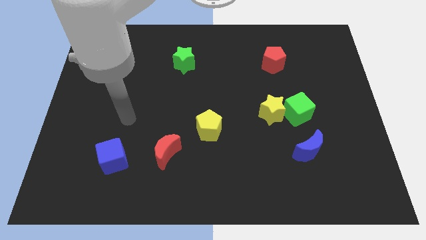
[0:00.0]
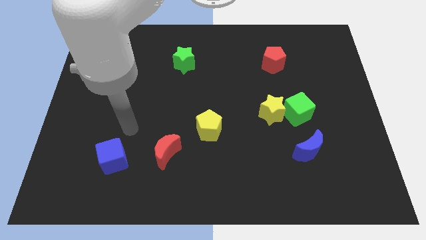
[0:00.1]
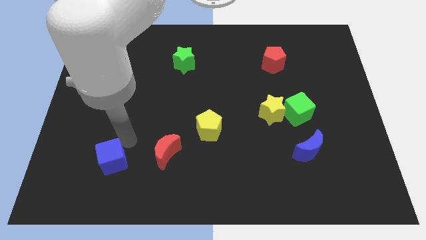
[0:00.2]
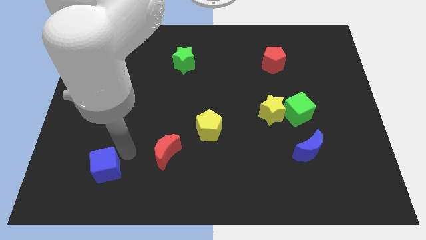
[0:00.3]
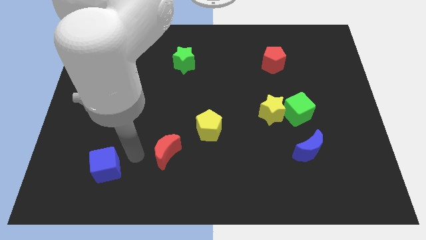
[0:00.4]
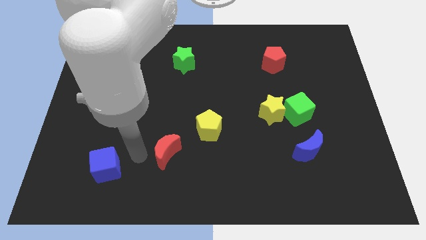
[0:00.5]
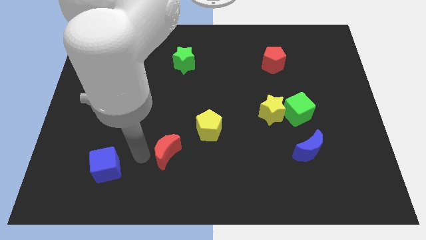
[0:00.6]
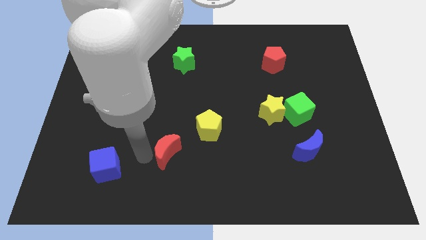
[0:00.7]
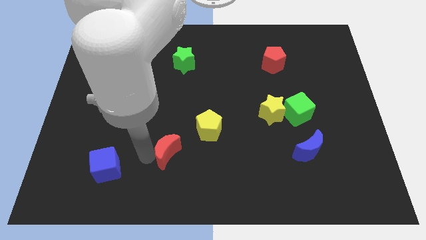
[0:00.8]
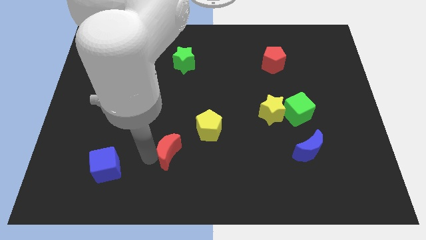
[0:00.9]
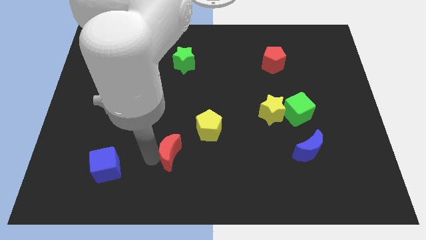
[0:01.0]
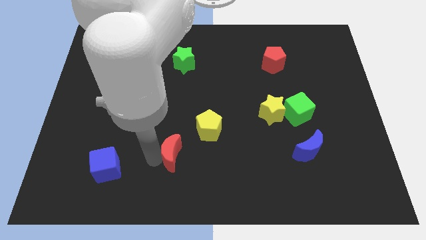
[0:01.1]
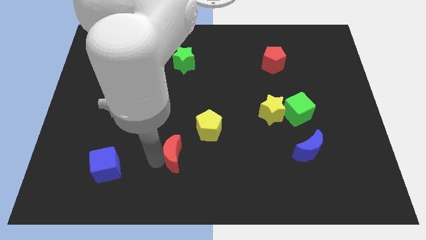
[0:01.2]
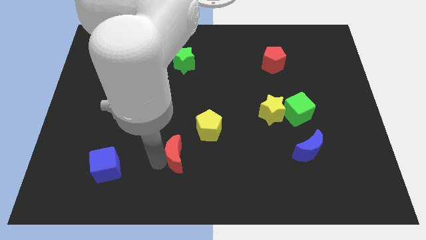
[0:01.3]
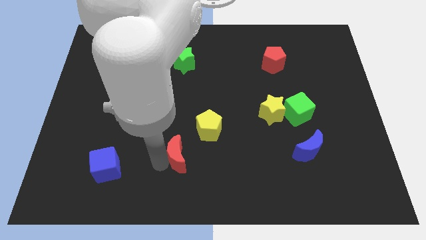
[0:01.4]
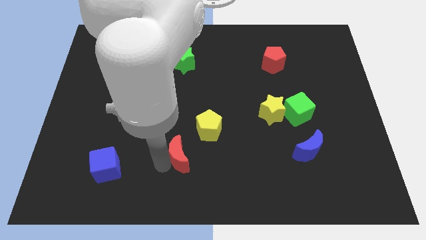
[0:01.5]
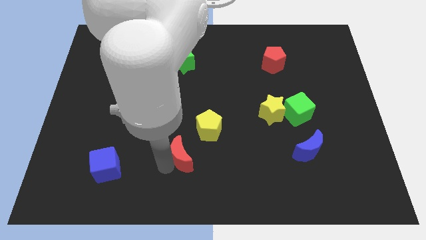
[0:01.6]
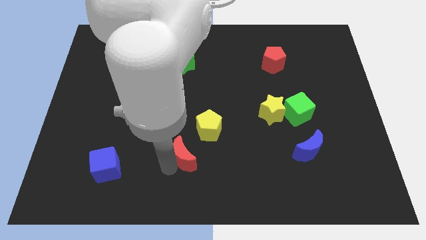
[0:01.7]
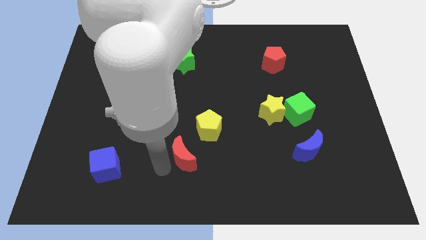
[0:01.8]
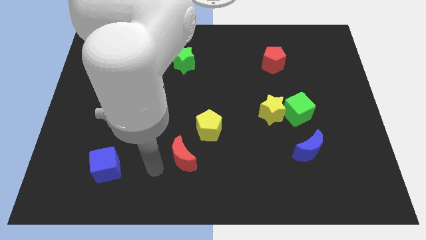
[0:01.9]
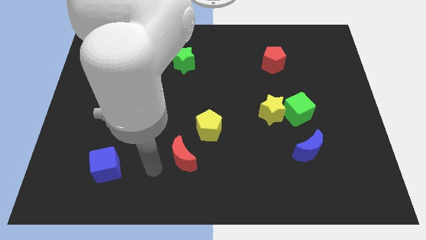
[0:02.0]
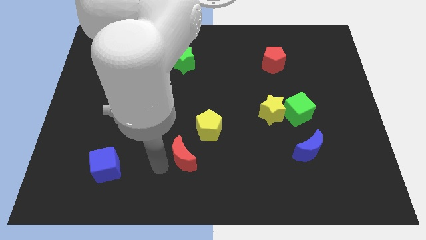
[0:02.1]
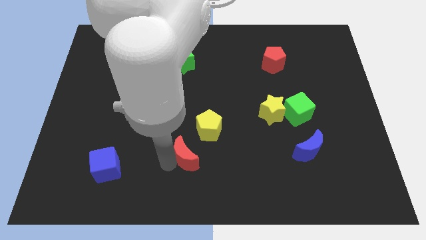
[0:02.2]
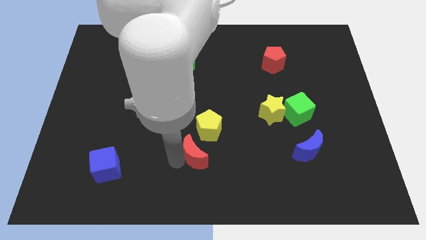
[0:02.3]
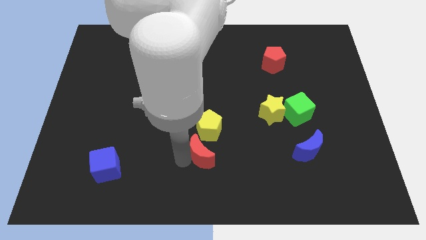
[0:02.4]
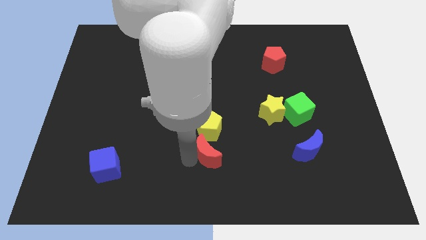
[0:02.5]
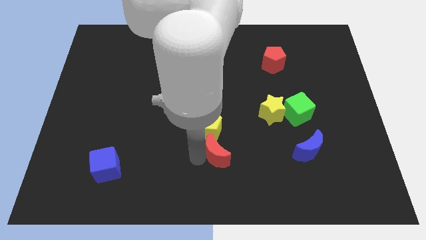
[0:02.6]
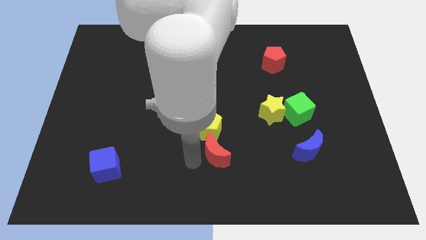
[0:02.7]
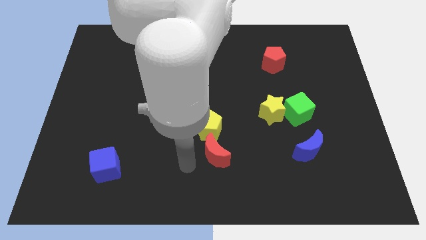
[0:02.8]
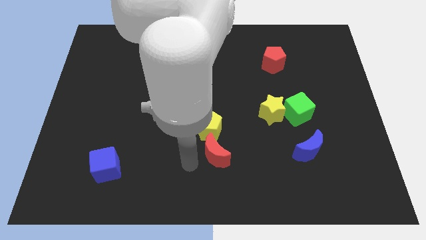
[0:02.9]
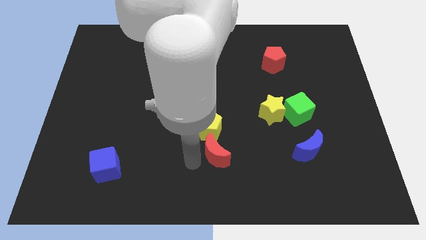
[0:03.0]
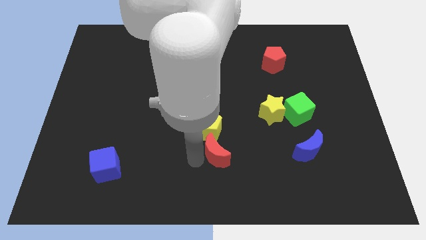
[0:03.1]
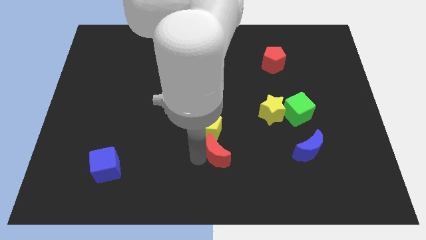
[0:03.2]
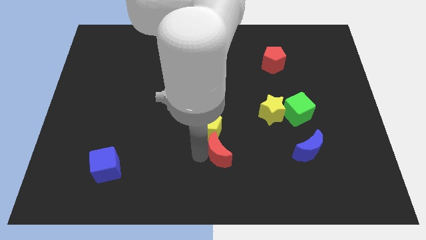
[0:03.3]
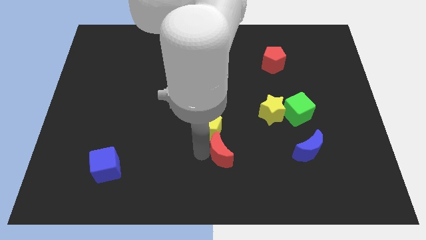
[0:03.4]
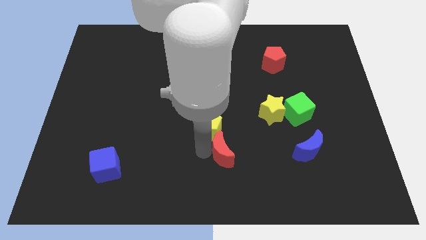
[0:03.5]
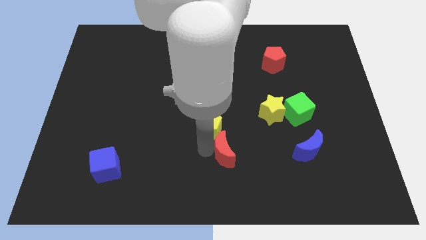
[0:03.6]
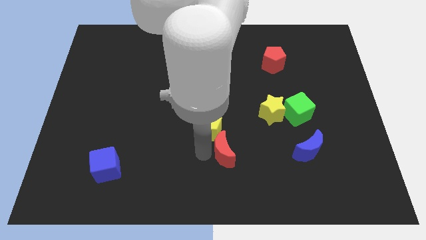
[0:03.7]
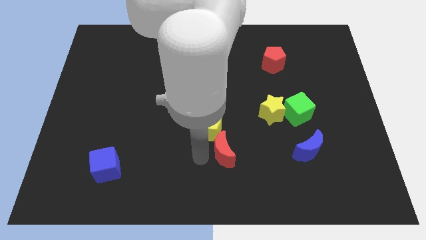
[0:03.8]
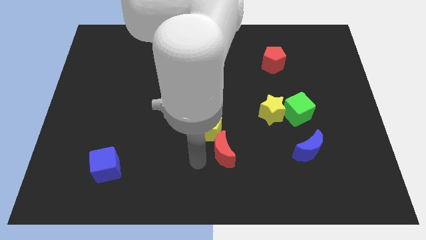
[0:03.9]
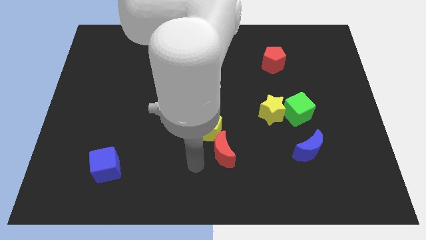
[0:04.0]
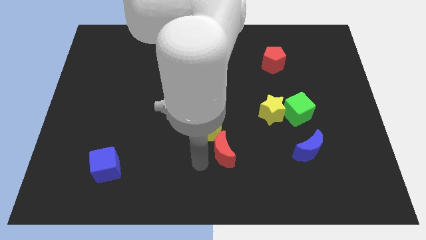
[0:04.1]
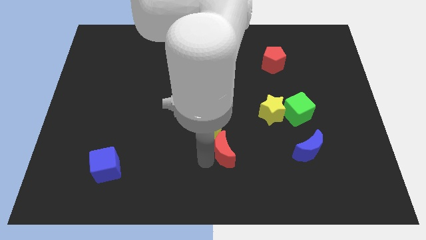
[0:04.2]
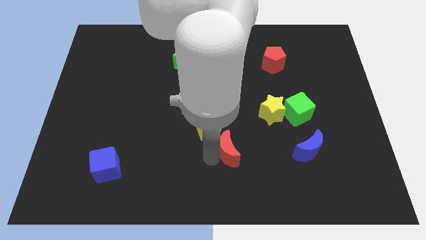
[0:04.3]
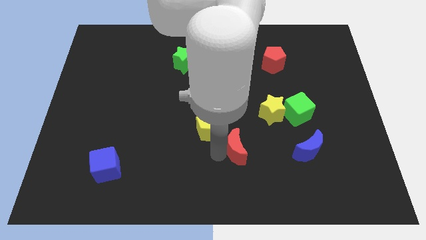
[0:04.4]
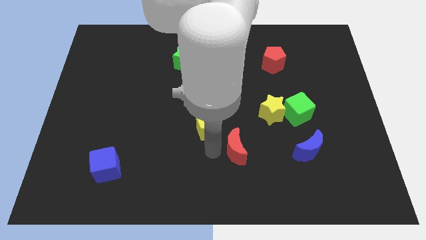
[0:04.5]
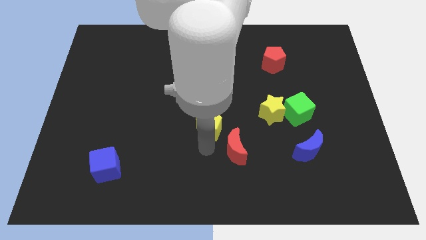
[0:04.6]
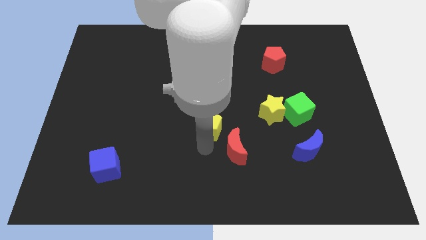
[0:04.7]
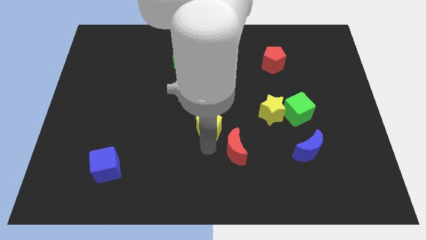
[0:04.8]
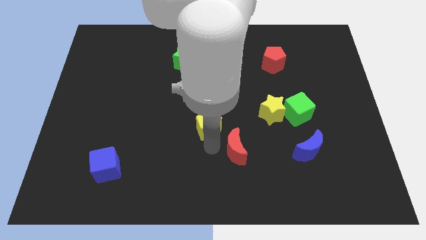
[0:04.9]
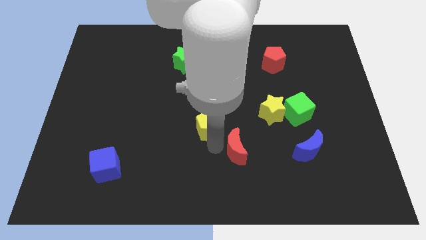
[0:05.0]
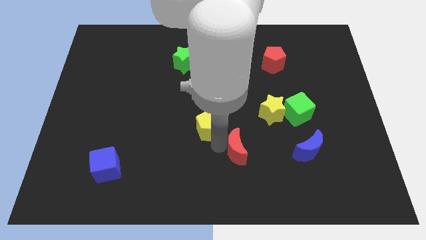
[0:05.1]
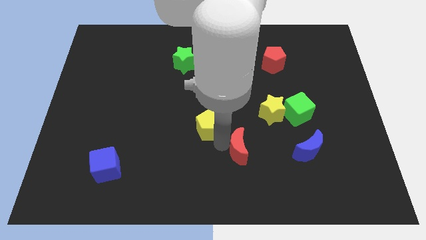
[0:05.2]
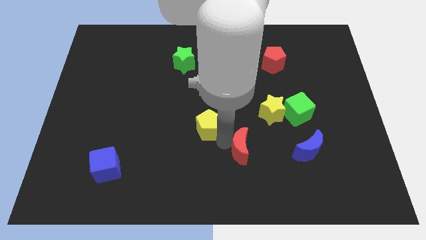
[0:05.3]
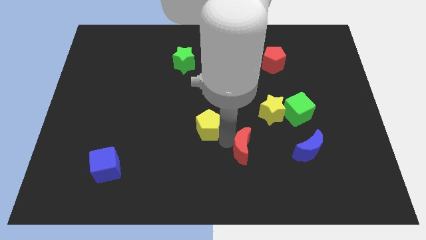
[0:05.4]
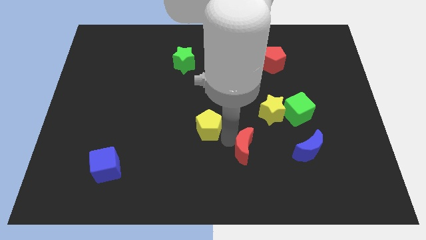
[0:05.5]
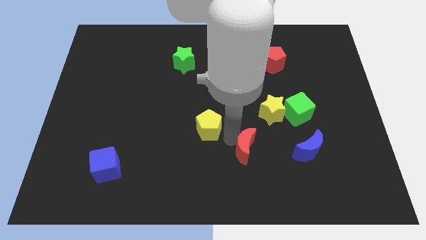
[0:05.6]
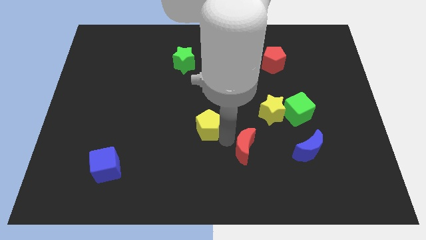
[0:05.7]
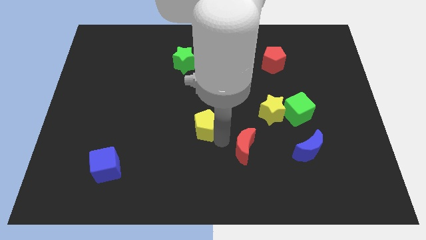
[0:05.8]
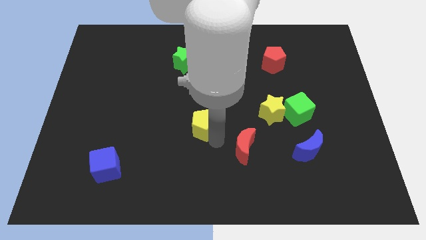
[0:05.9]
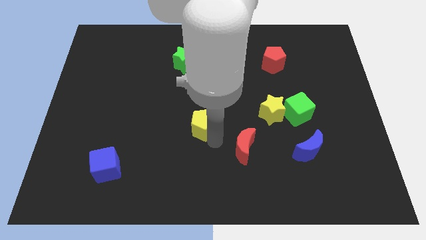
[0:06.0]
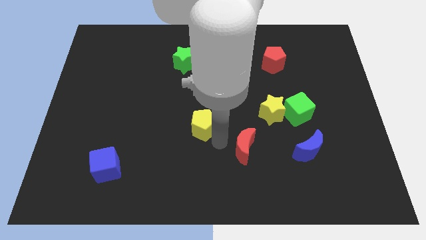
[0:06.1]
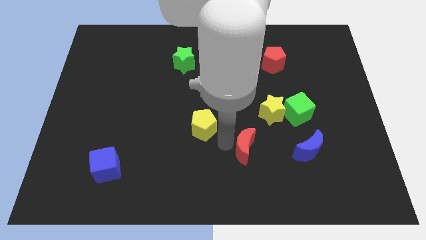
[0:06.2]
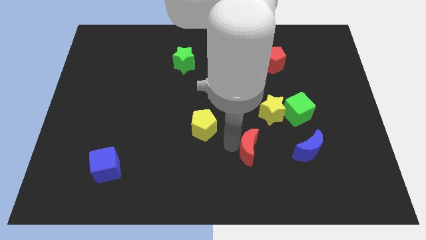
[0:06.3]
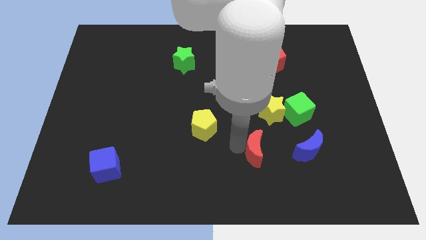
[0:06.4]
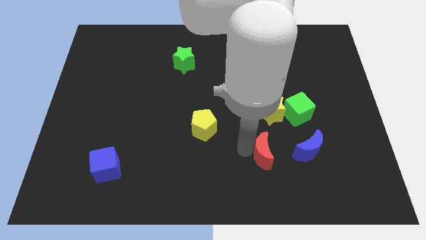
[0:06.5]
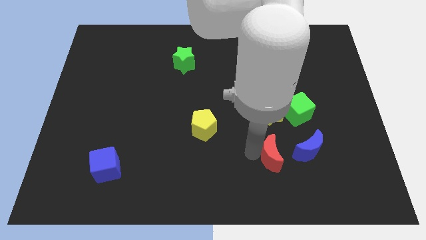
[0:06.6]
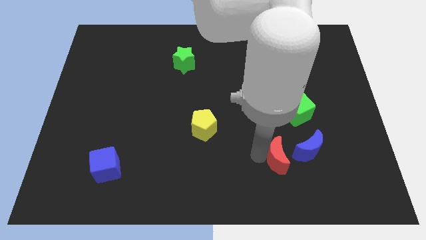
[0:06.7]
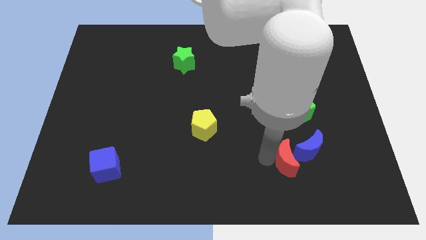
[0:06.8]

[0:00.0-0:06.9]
push the red moon towards the blue moon

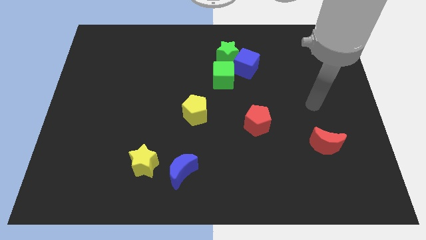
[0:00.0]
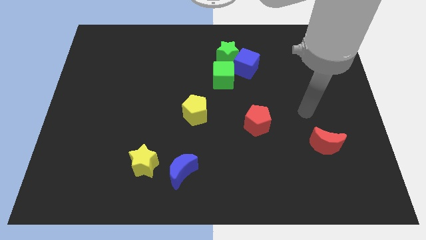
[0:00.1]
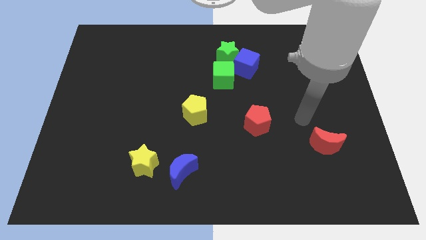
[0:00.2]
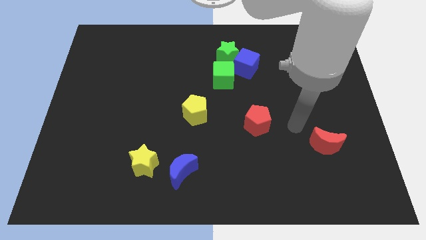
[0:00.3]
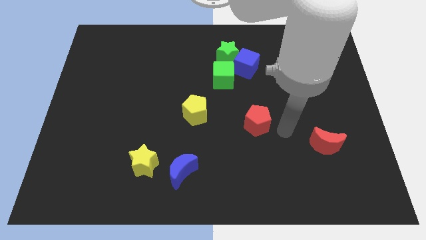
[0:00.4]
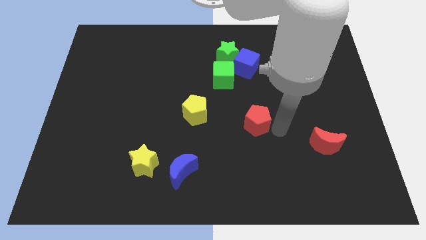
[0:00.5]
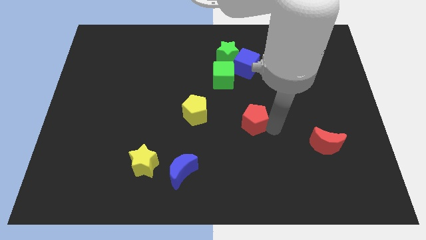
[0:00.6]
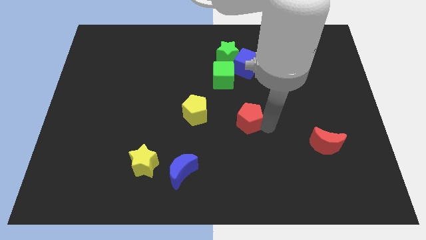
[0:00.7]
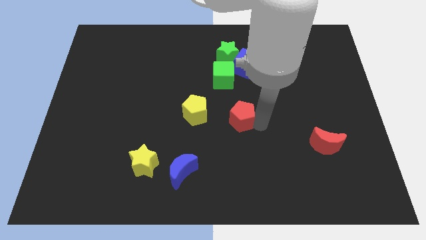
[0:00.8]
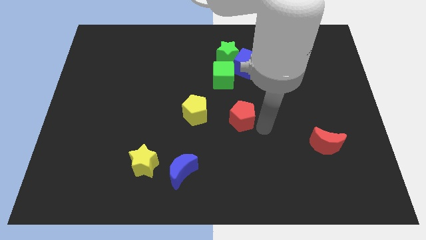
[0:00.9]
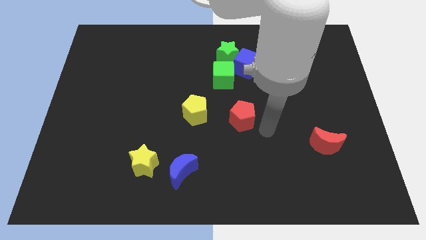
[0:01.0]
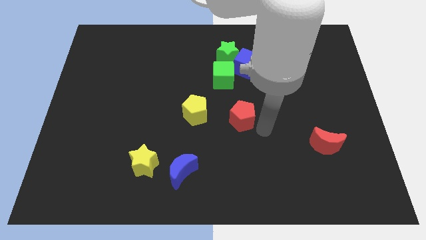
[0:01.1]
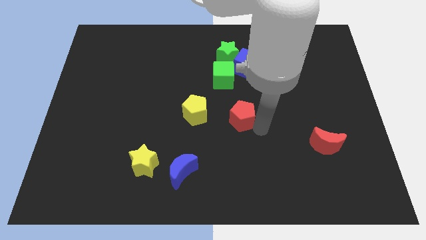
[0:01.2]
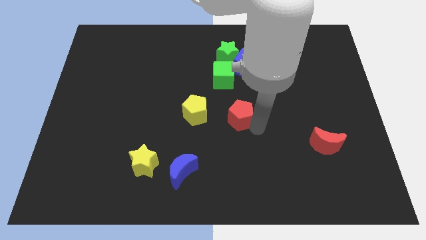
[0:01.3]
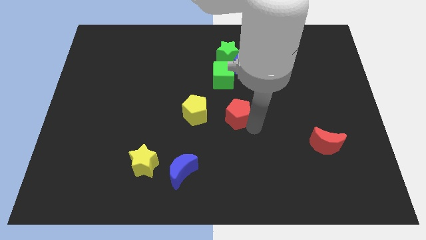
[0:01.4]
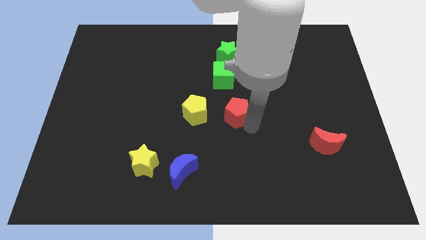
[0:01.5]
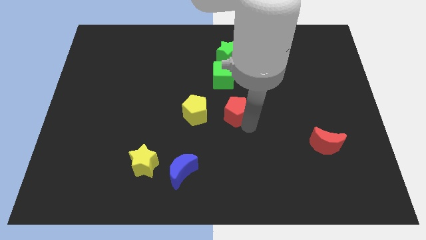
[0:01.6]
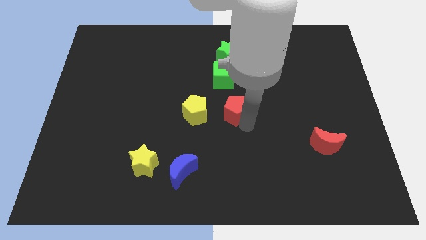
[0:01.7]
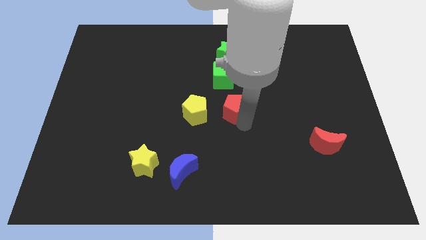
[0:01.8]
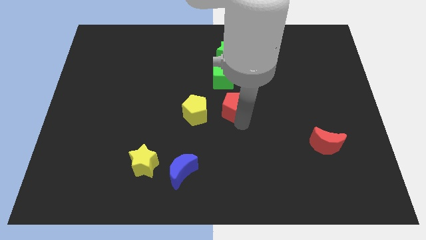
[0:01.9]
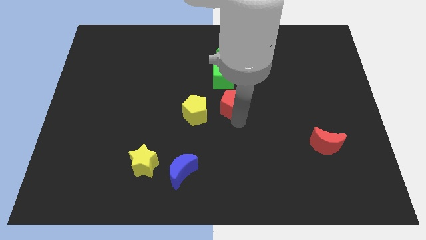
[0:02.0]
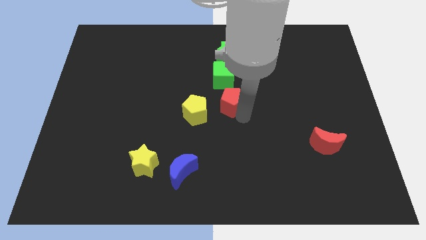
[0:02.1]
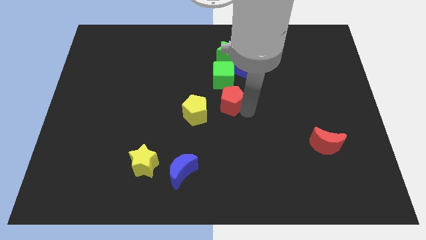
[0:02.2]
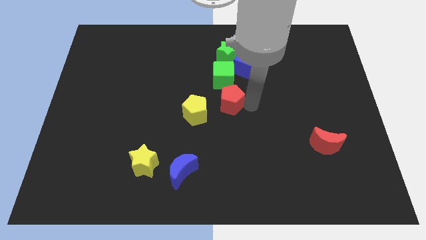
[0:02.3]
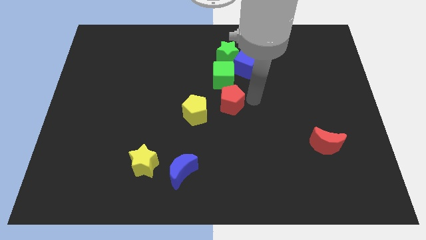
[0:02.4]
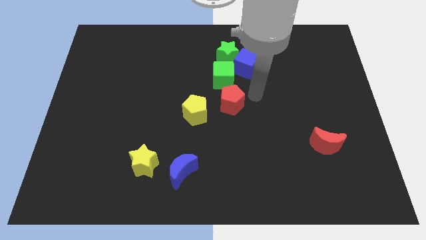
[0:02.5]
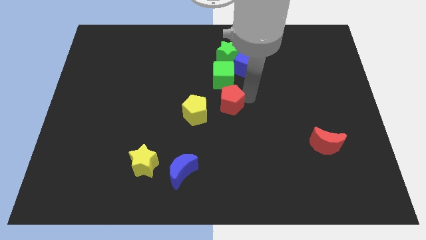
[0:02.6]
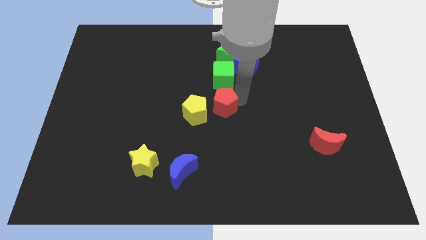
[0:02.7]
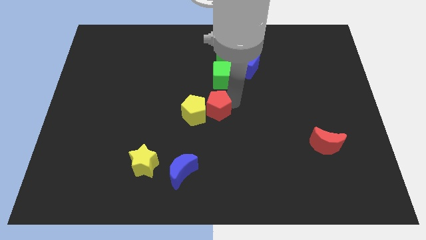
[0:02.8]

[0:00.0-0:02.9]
move the red pentagon towards the yellow pentagon
